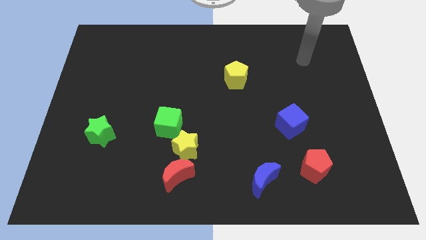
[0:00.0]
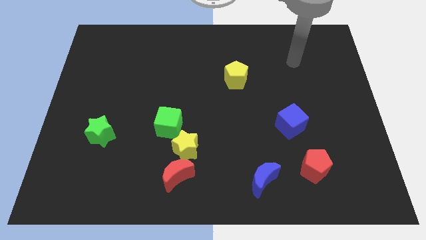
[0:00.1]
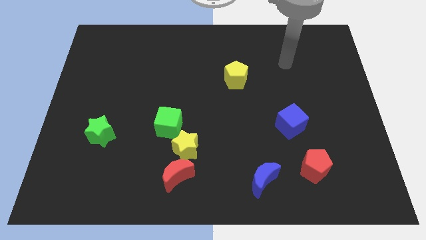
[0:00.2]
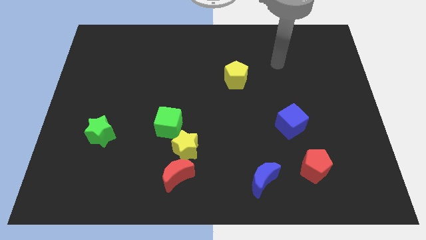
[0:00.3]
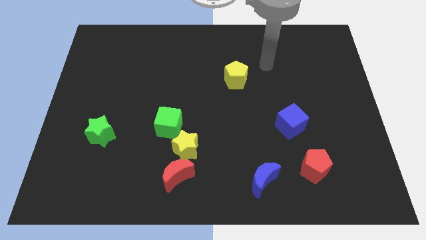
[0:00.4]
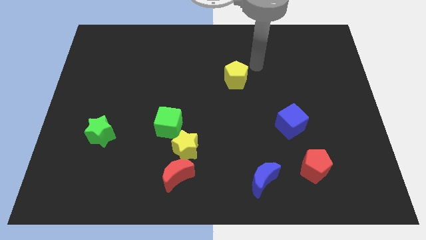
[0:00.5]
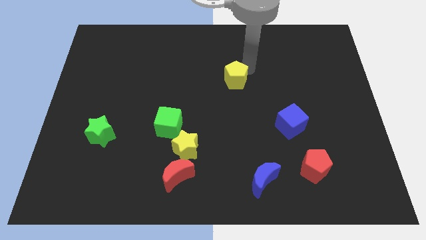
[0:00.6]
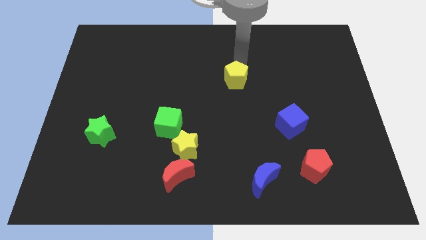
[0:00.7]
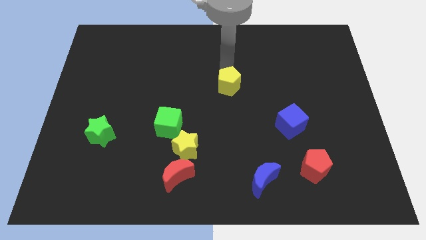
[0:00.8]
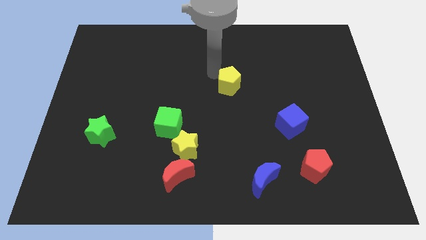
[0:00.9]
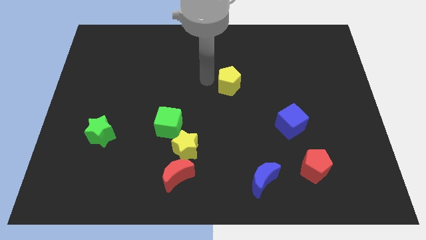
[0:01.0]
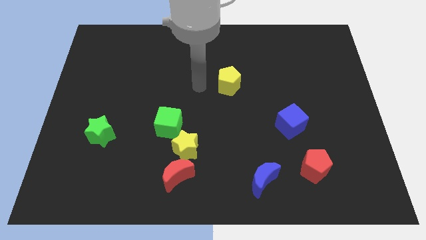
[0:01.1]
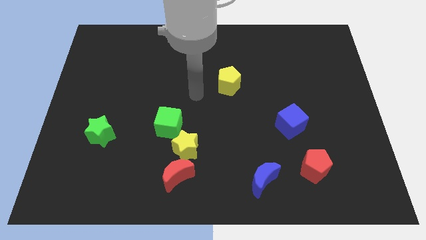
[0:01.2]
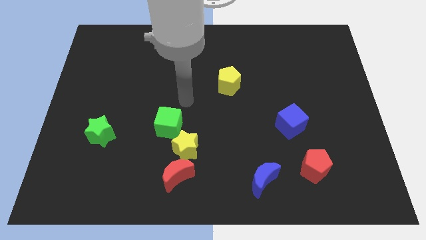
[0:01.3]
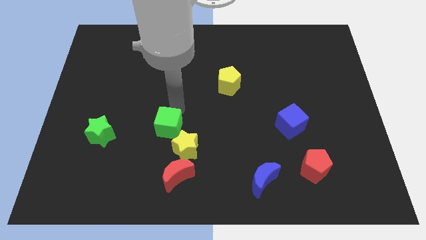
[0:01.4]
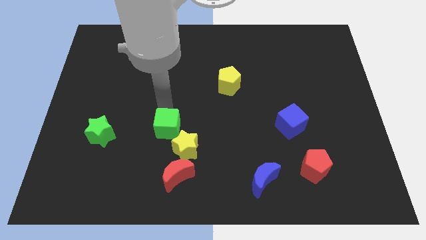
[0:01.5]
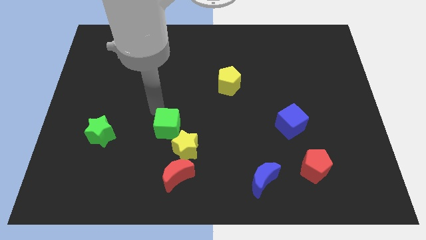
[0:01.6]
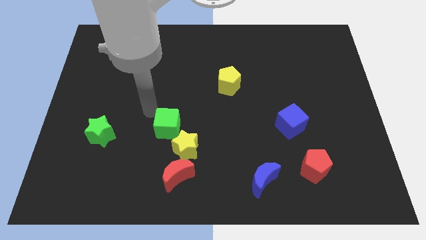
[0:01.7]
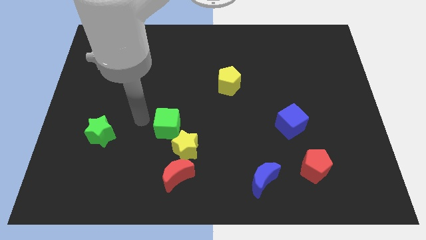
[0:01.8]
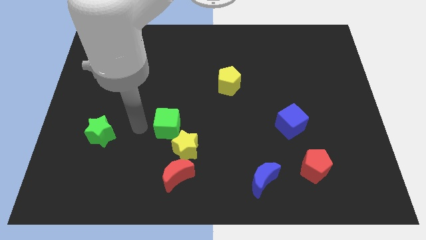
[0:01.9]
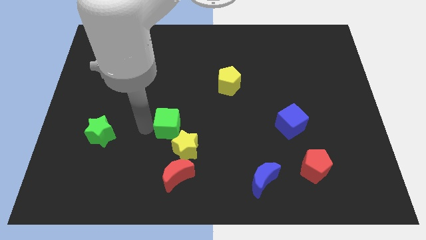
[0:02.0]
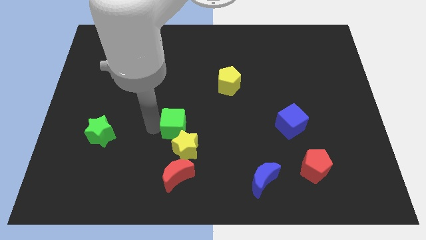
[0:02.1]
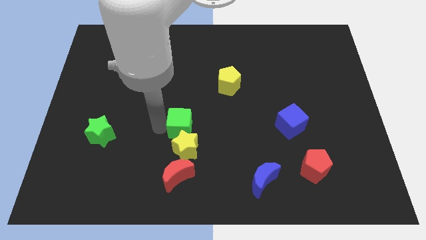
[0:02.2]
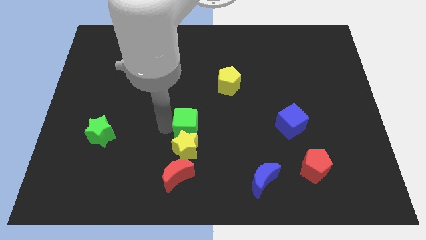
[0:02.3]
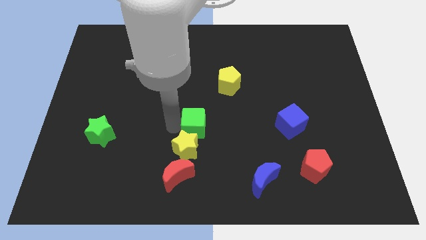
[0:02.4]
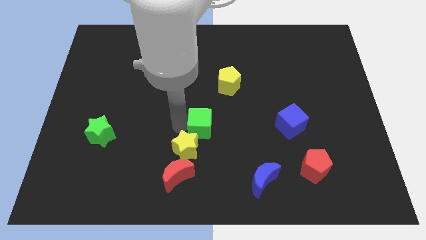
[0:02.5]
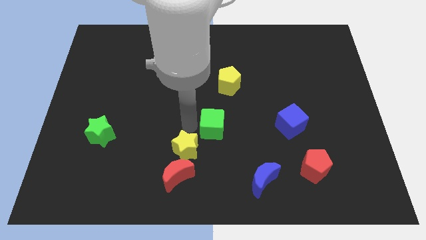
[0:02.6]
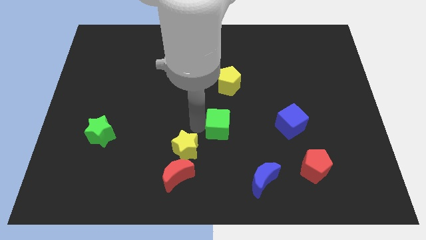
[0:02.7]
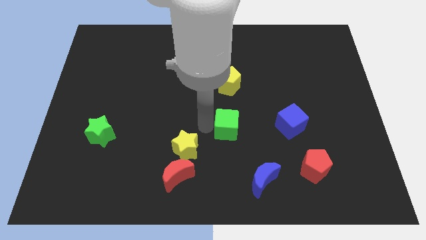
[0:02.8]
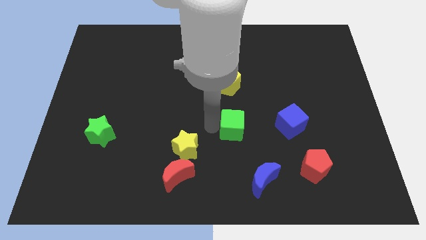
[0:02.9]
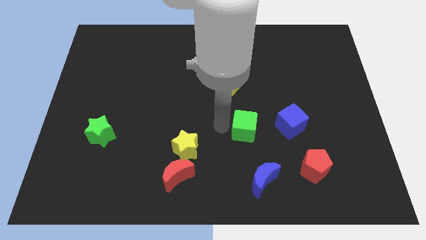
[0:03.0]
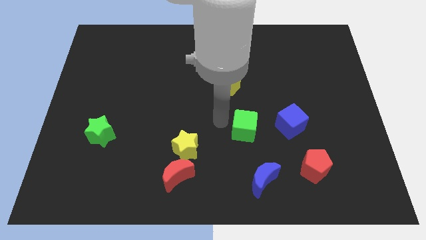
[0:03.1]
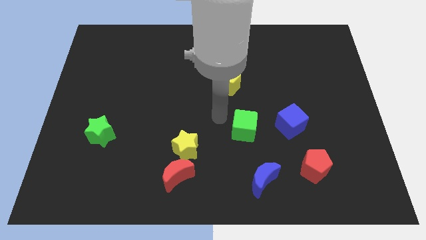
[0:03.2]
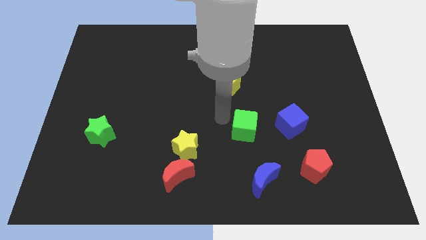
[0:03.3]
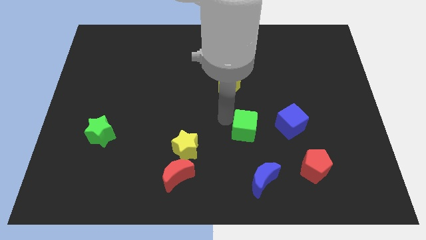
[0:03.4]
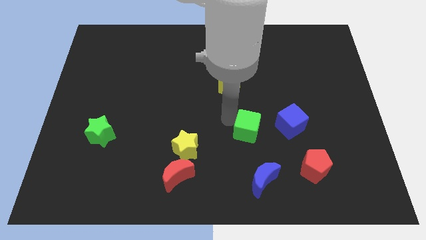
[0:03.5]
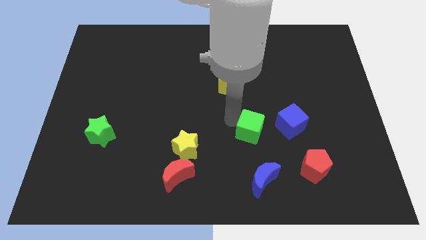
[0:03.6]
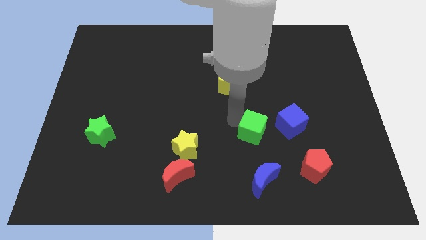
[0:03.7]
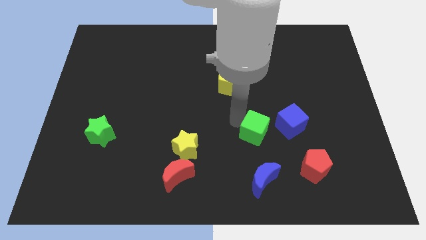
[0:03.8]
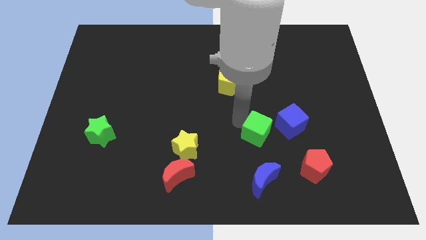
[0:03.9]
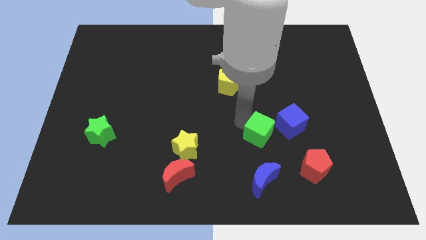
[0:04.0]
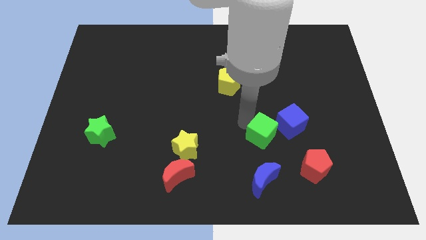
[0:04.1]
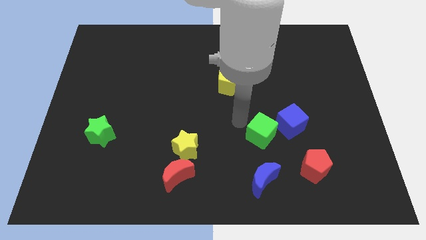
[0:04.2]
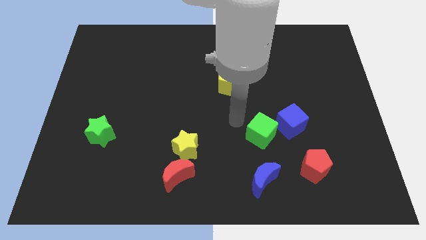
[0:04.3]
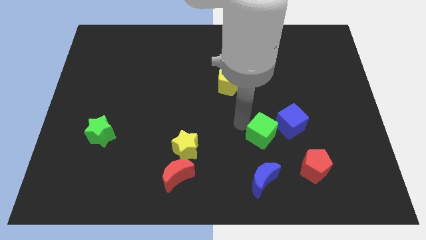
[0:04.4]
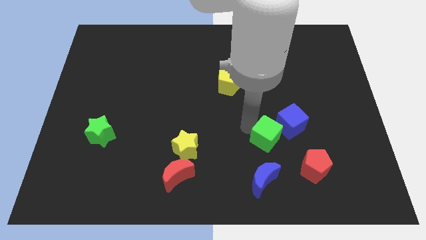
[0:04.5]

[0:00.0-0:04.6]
move the green cube to the top left side of the red pentagon

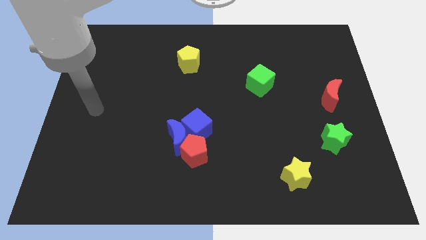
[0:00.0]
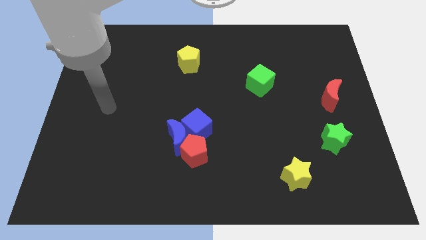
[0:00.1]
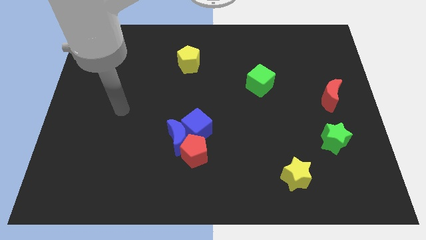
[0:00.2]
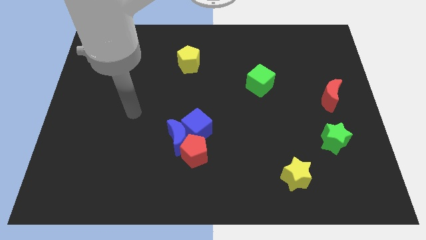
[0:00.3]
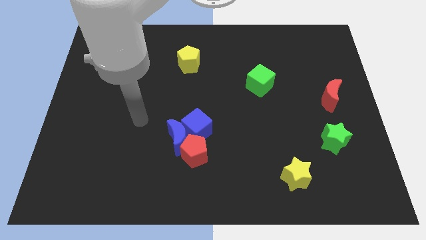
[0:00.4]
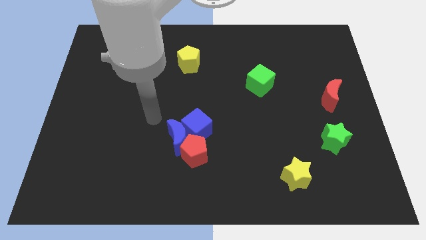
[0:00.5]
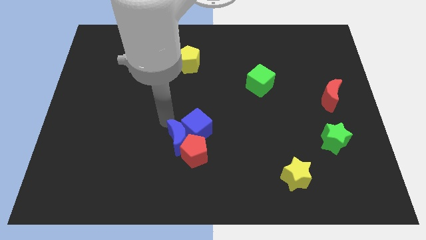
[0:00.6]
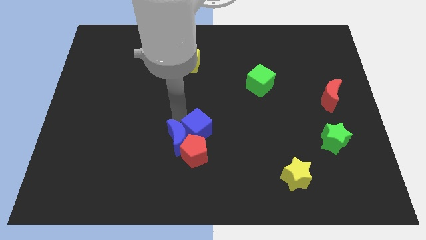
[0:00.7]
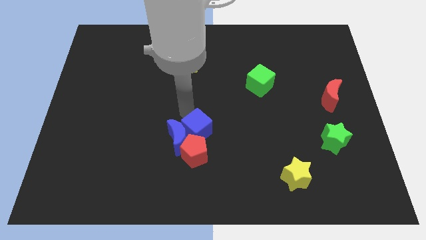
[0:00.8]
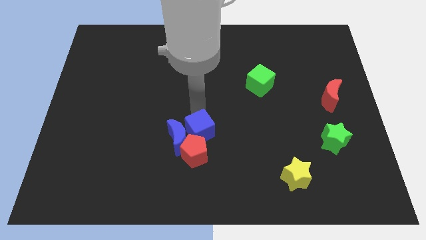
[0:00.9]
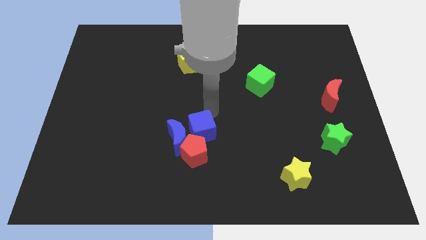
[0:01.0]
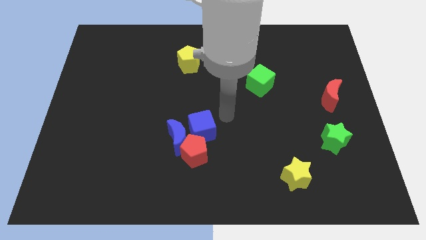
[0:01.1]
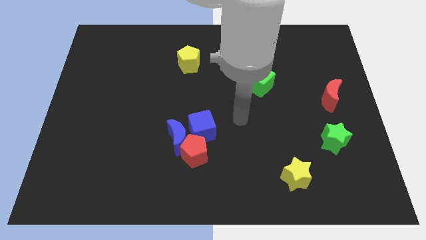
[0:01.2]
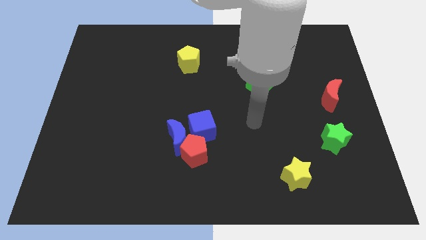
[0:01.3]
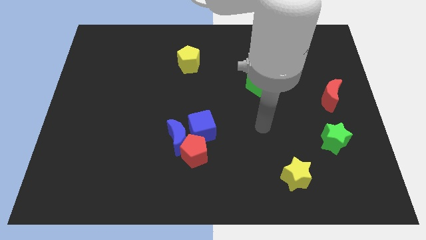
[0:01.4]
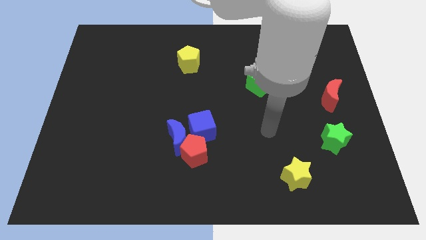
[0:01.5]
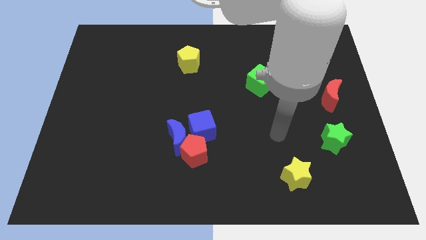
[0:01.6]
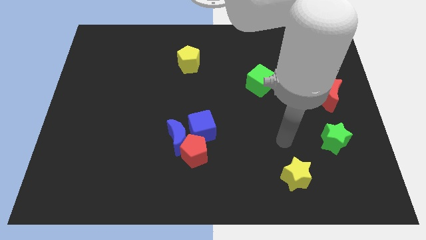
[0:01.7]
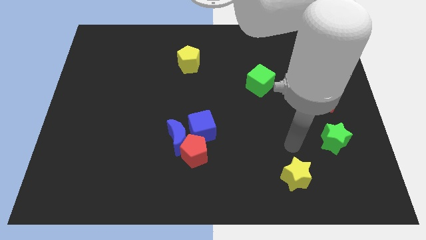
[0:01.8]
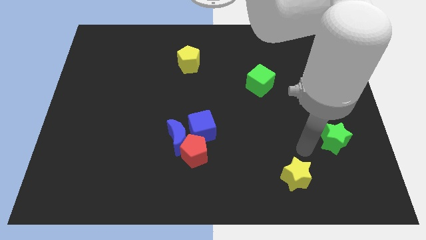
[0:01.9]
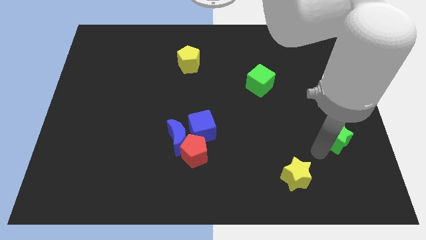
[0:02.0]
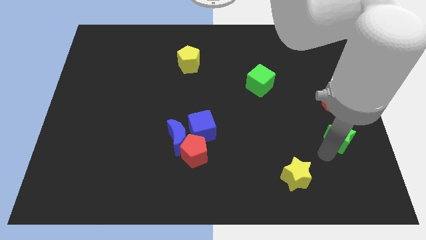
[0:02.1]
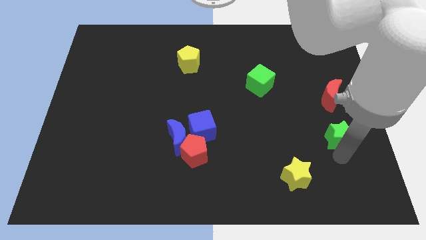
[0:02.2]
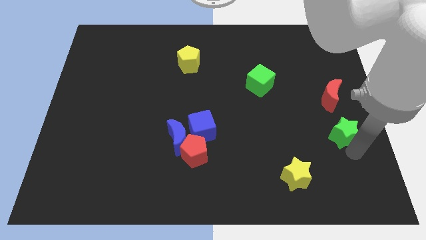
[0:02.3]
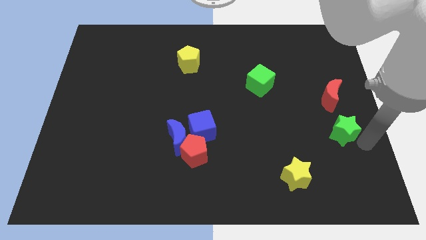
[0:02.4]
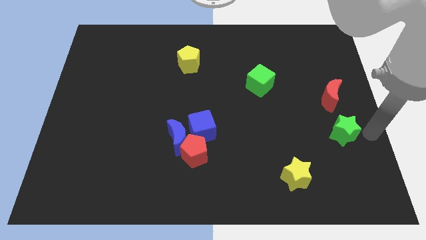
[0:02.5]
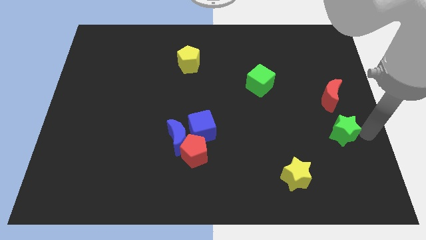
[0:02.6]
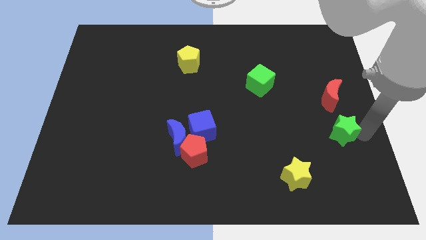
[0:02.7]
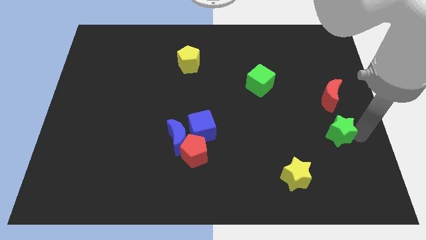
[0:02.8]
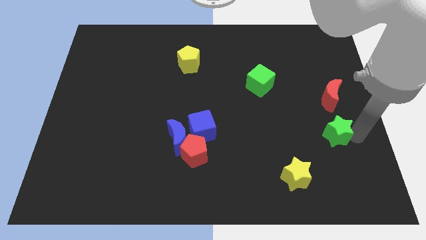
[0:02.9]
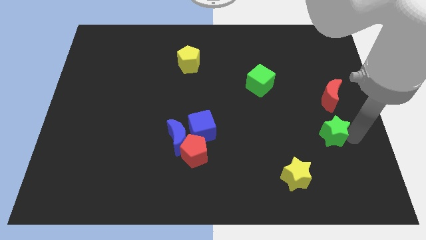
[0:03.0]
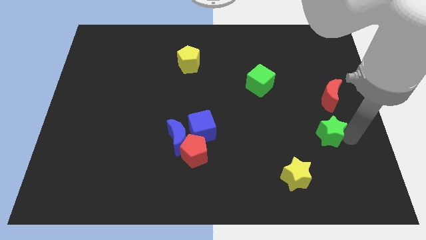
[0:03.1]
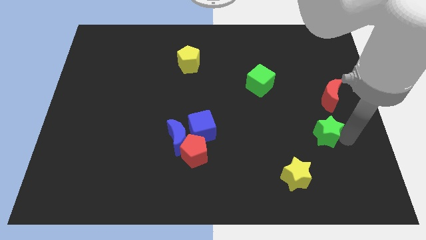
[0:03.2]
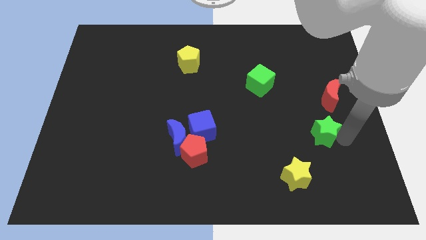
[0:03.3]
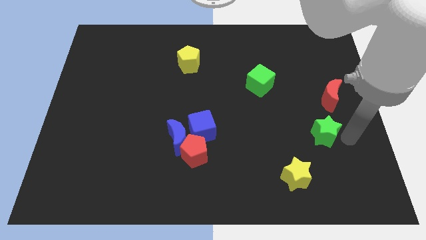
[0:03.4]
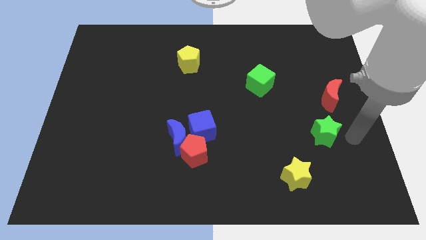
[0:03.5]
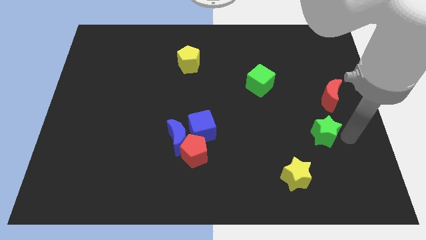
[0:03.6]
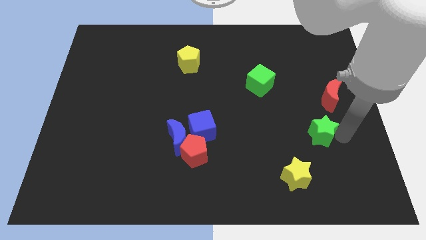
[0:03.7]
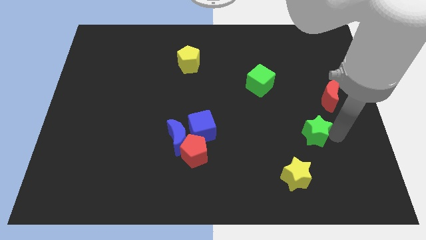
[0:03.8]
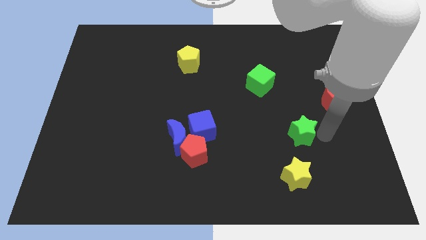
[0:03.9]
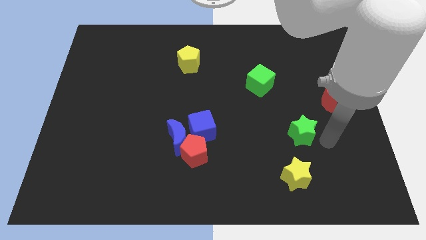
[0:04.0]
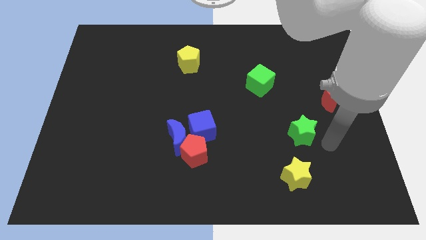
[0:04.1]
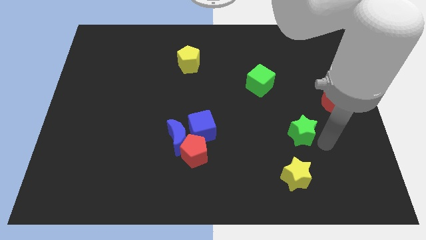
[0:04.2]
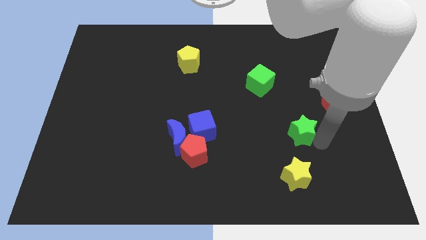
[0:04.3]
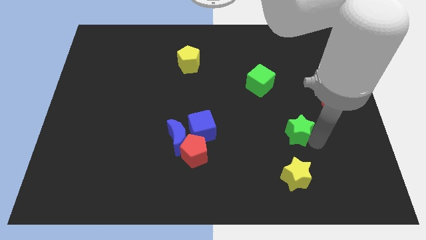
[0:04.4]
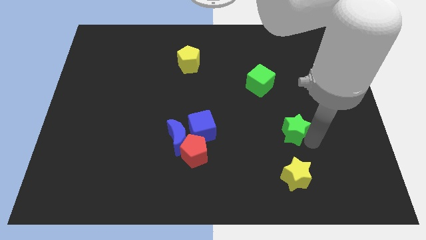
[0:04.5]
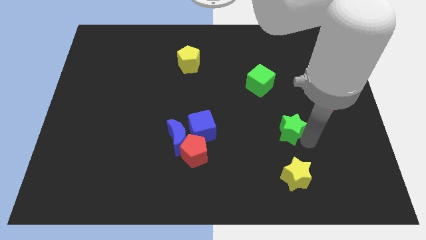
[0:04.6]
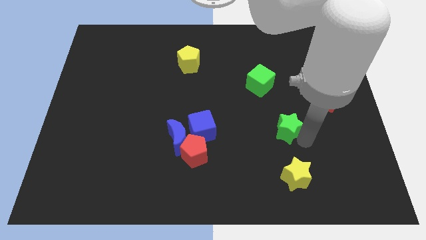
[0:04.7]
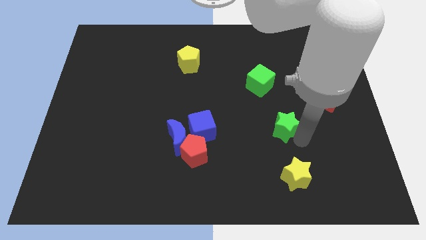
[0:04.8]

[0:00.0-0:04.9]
move the green star to the bottom of the green cube
